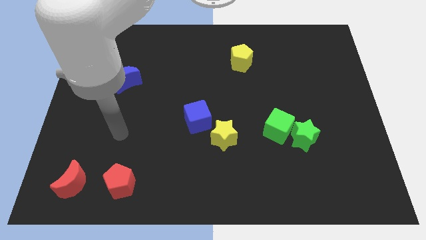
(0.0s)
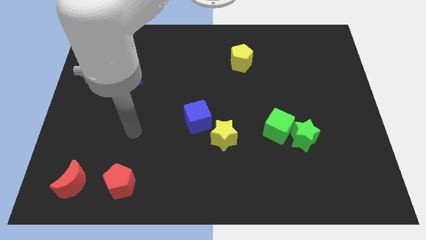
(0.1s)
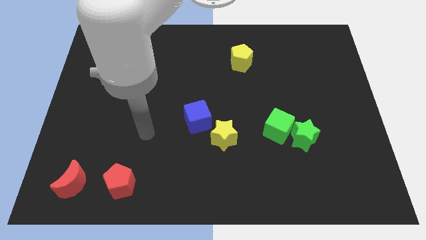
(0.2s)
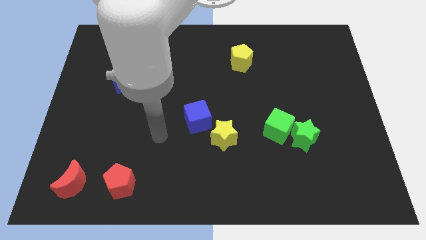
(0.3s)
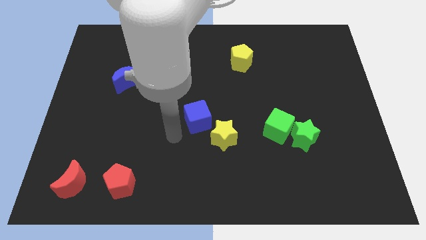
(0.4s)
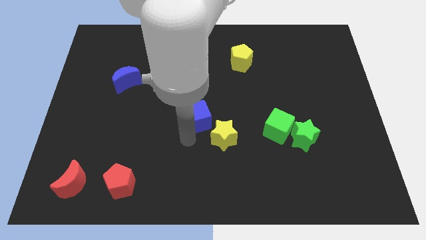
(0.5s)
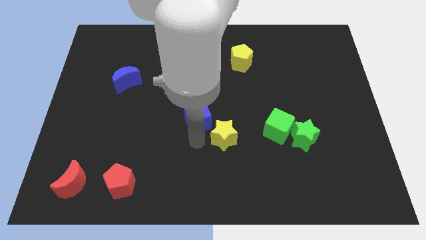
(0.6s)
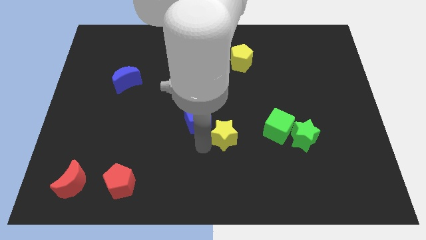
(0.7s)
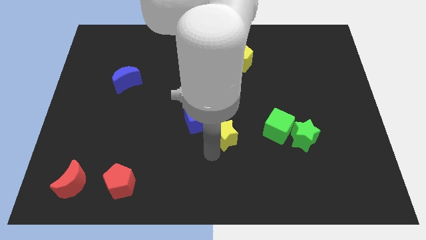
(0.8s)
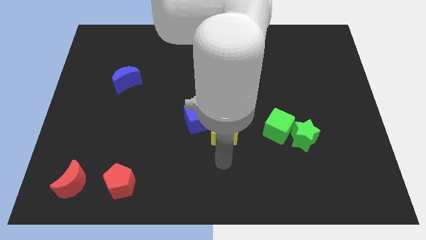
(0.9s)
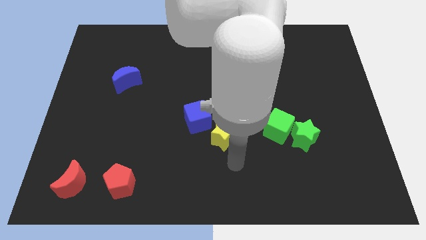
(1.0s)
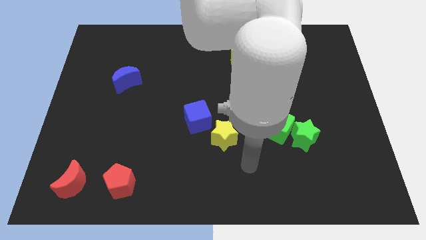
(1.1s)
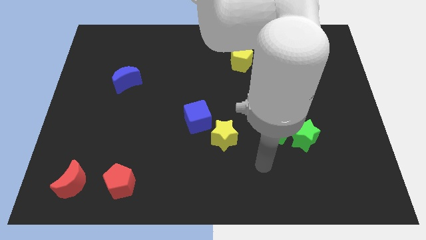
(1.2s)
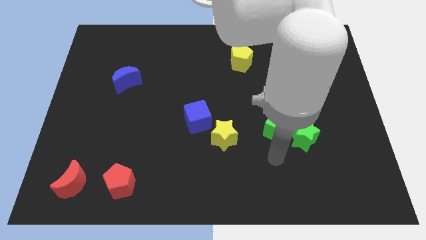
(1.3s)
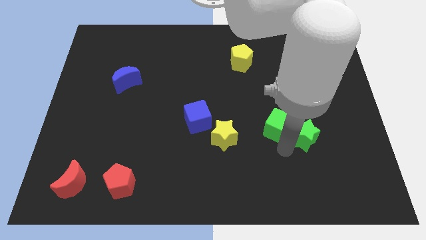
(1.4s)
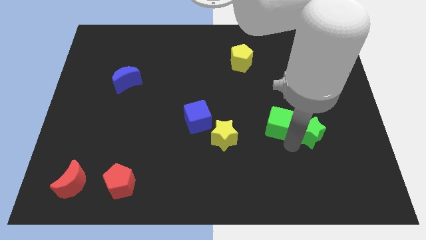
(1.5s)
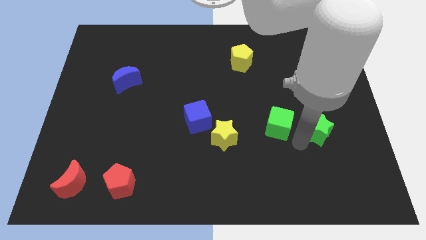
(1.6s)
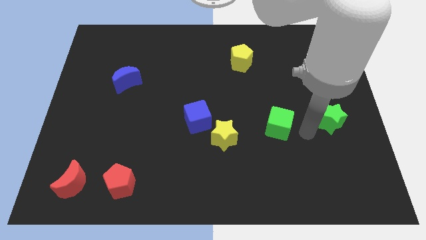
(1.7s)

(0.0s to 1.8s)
move the green cube away from the green star

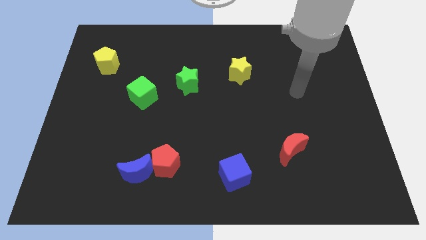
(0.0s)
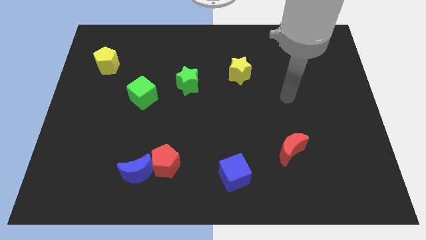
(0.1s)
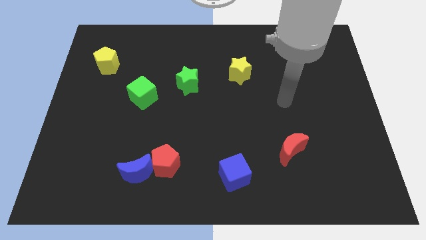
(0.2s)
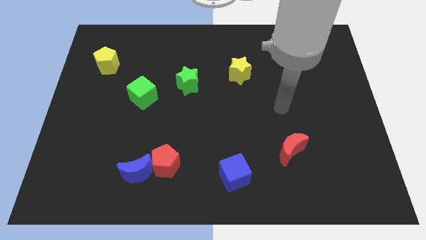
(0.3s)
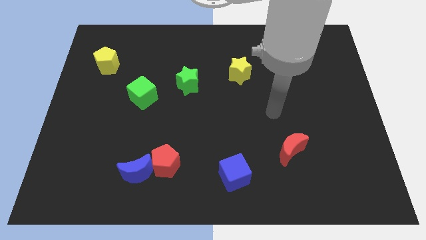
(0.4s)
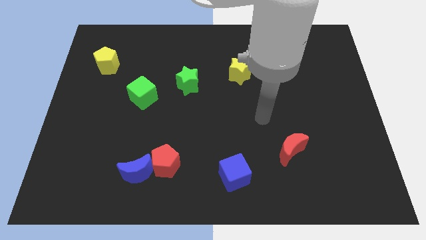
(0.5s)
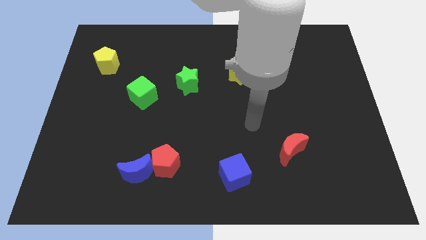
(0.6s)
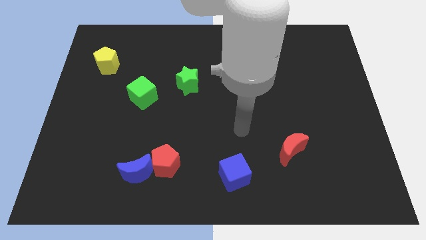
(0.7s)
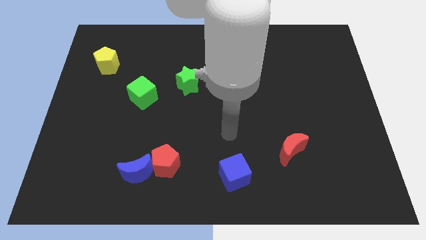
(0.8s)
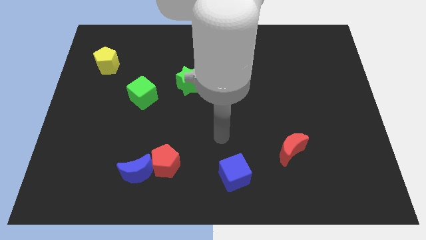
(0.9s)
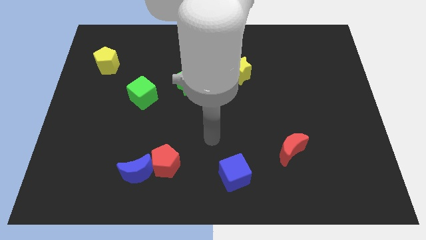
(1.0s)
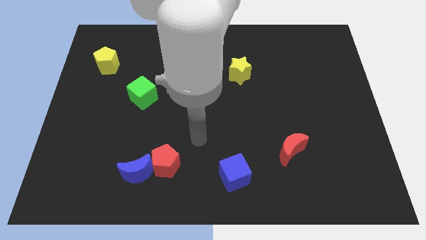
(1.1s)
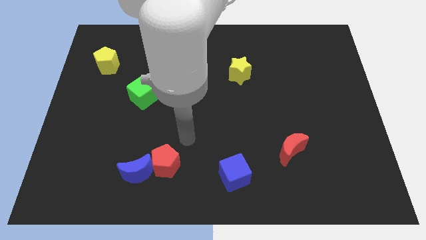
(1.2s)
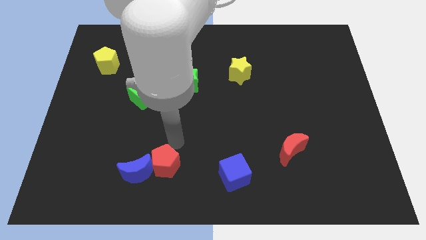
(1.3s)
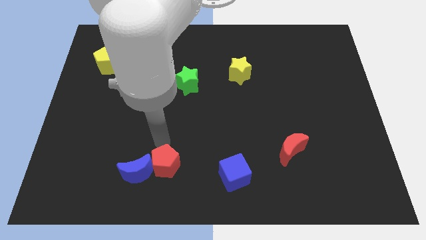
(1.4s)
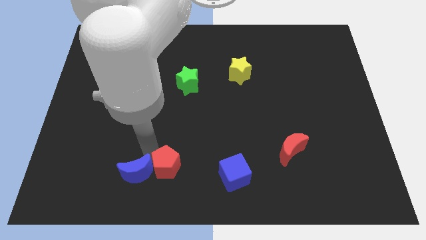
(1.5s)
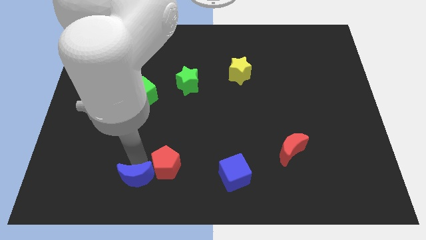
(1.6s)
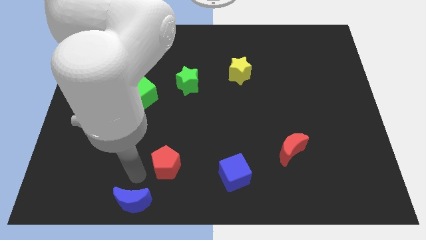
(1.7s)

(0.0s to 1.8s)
separate the red pentagon from the blue moon

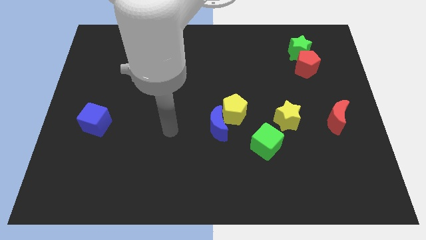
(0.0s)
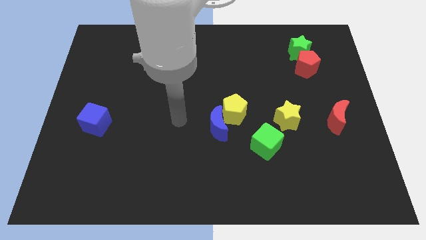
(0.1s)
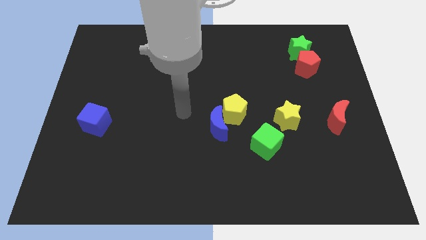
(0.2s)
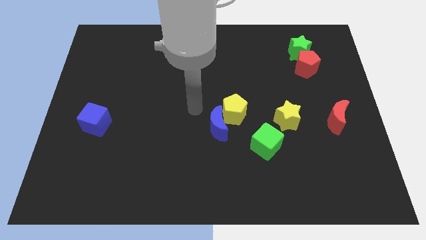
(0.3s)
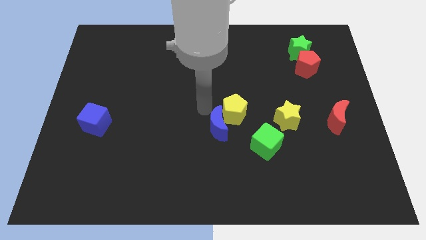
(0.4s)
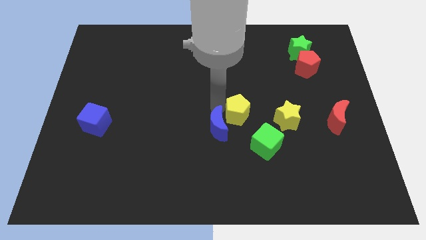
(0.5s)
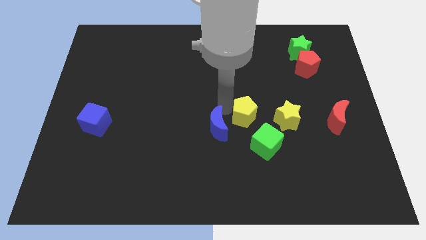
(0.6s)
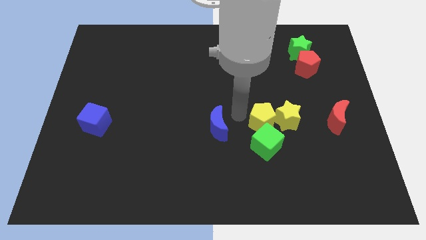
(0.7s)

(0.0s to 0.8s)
separate the blue moon from the yellow pentagon

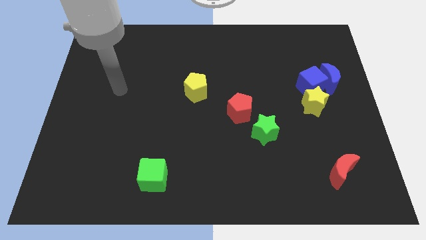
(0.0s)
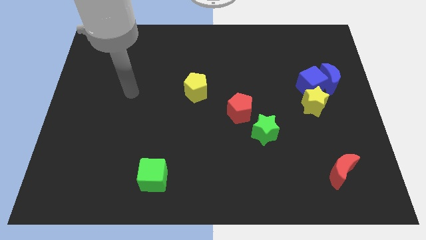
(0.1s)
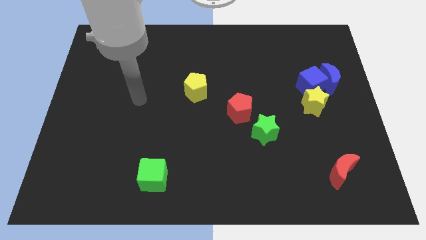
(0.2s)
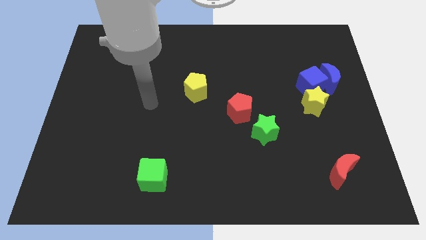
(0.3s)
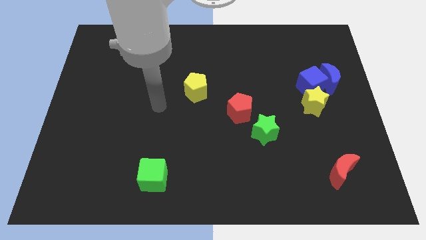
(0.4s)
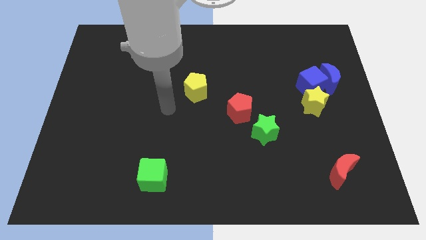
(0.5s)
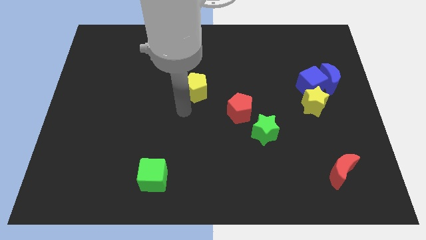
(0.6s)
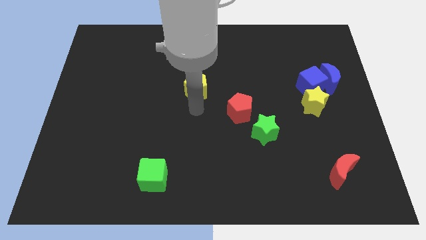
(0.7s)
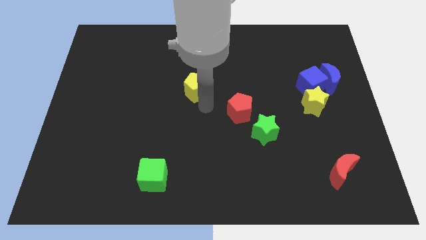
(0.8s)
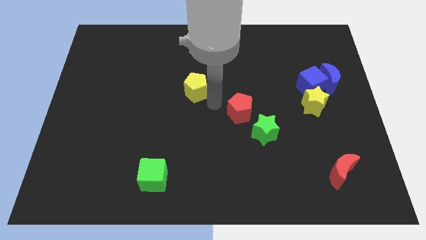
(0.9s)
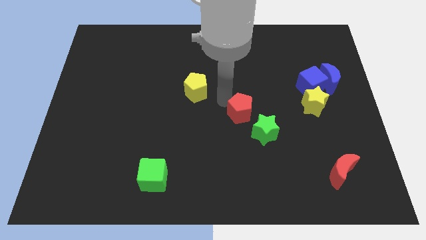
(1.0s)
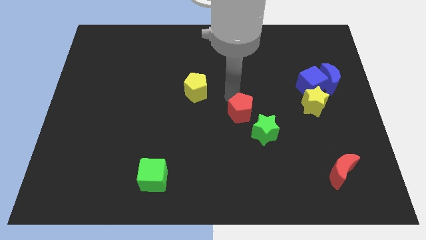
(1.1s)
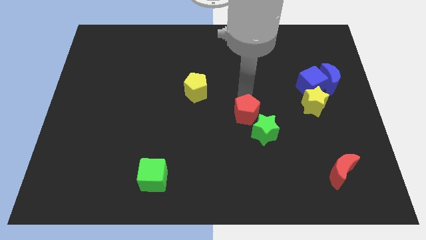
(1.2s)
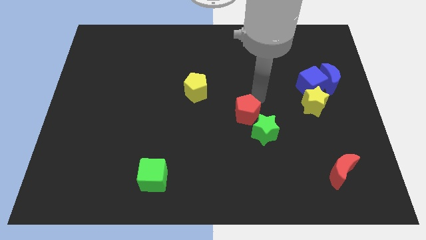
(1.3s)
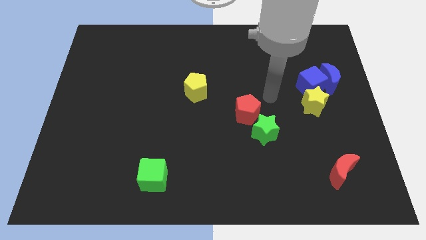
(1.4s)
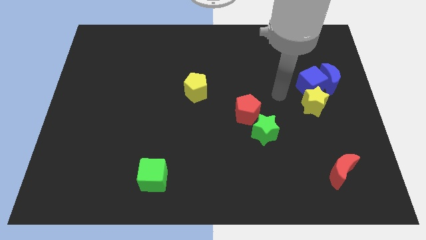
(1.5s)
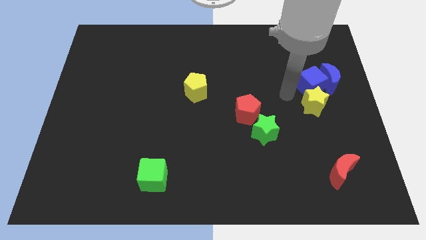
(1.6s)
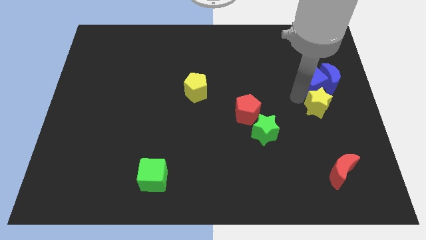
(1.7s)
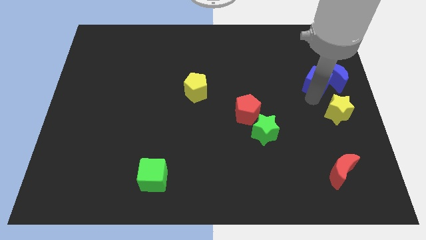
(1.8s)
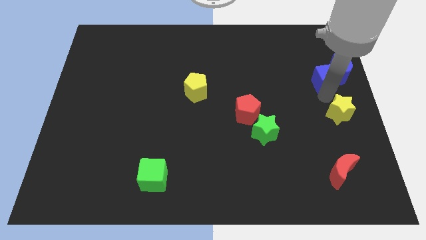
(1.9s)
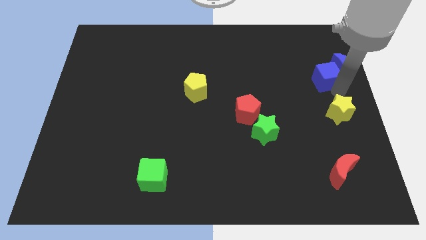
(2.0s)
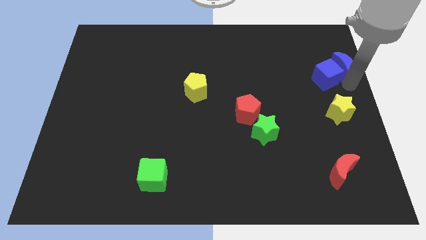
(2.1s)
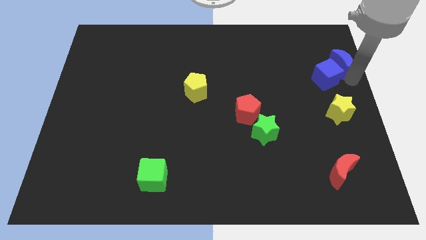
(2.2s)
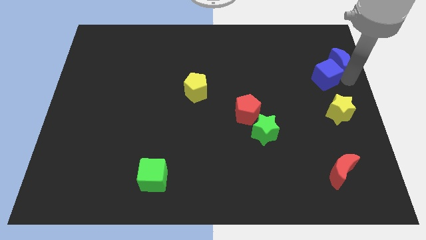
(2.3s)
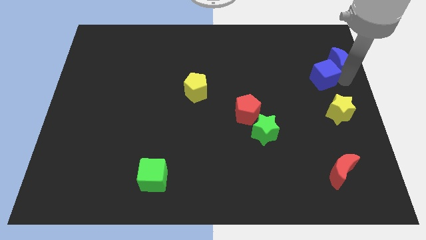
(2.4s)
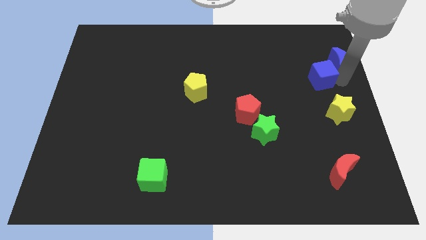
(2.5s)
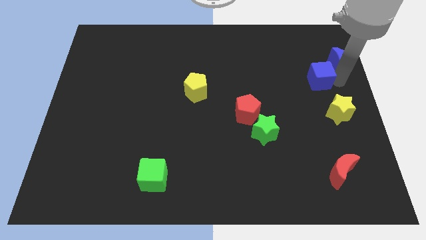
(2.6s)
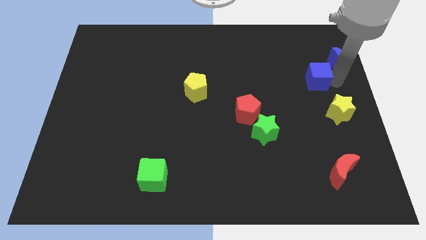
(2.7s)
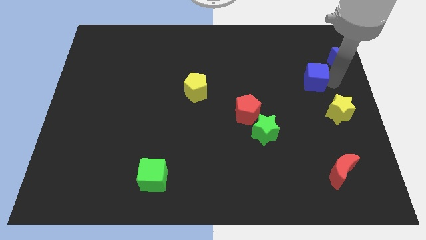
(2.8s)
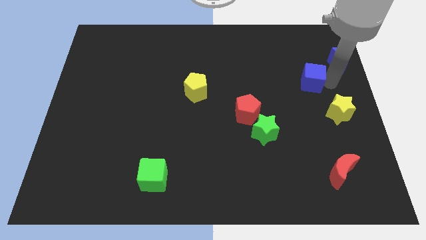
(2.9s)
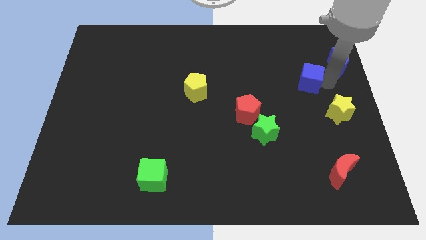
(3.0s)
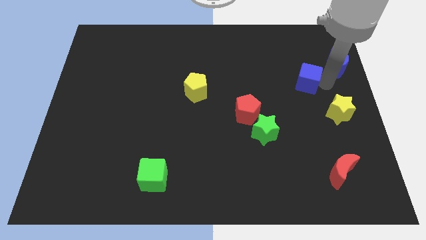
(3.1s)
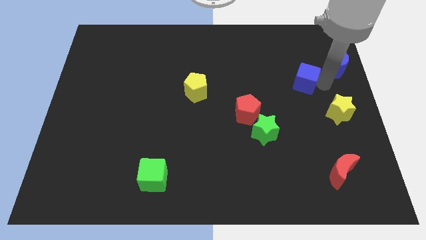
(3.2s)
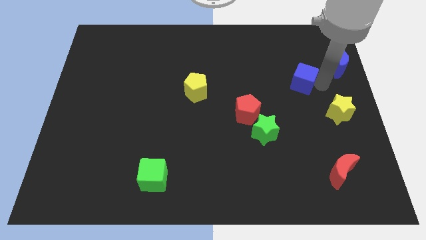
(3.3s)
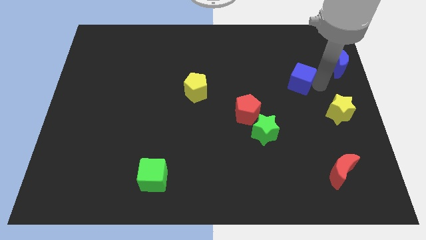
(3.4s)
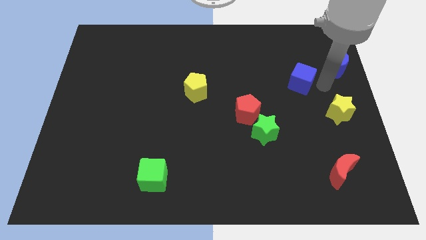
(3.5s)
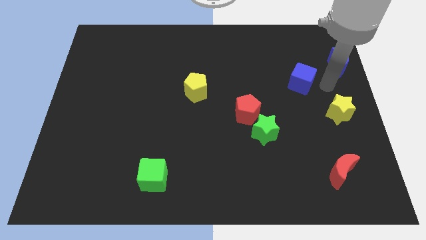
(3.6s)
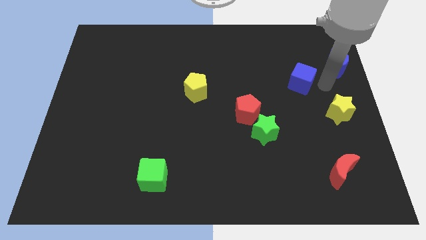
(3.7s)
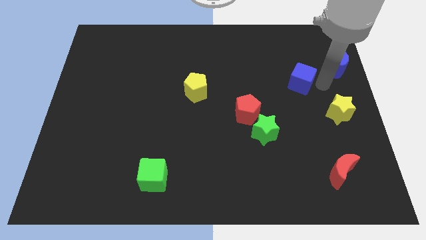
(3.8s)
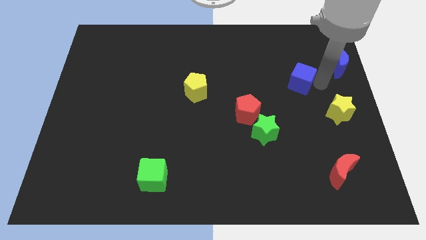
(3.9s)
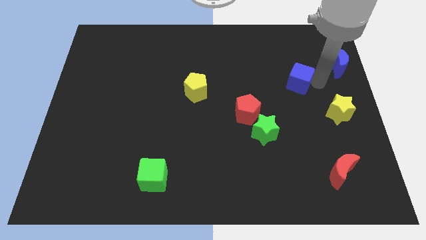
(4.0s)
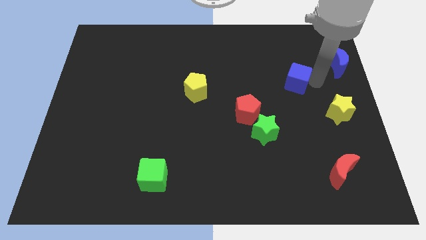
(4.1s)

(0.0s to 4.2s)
separate the blue cube from the blue moon and yellow star

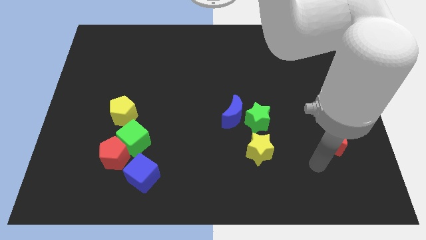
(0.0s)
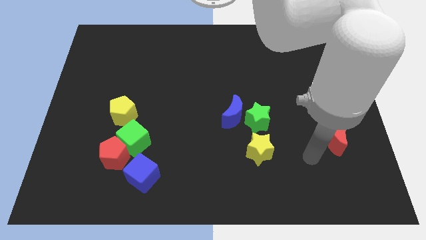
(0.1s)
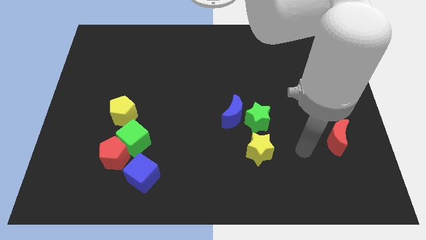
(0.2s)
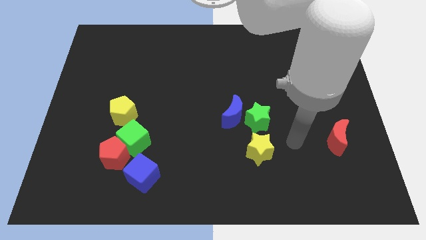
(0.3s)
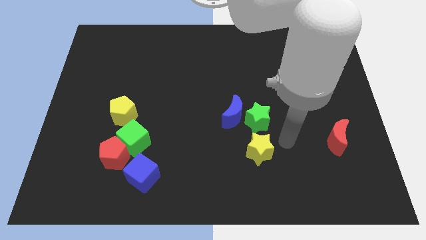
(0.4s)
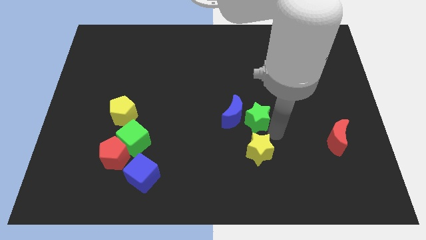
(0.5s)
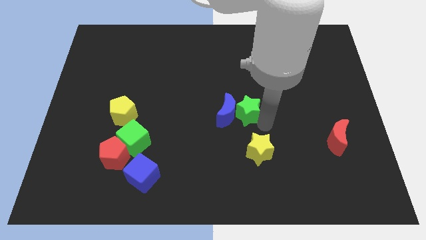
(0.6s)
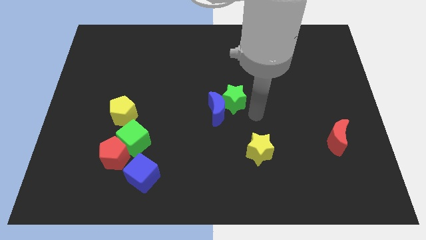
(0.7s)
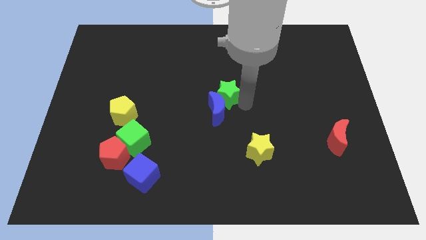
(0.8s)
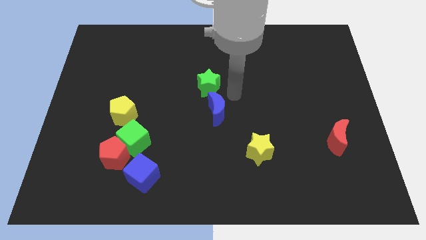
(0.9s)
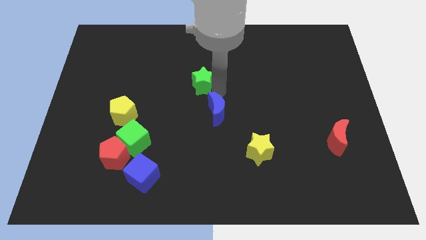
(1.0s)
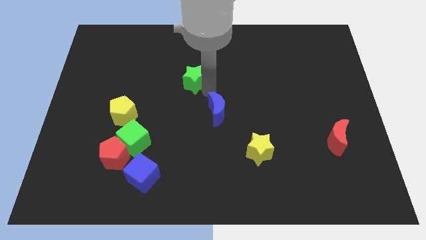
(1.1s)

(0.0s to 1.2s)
move the blue moon away from the green star
